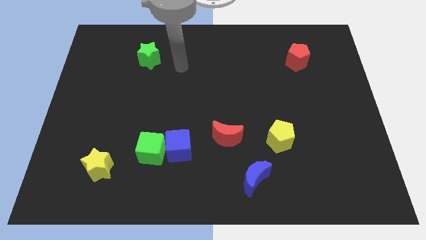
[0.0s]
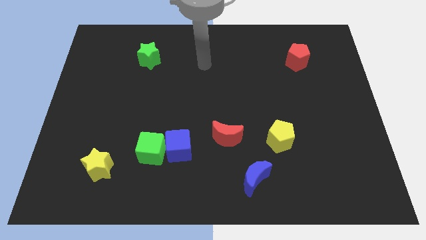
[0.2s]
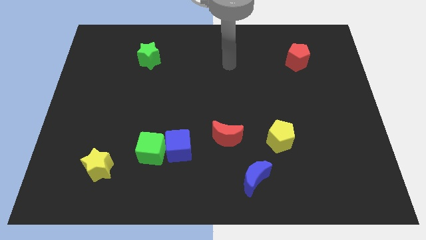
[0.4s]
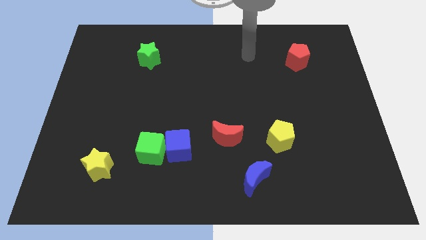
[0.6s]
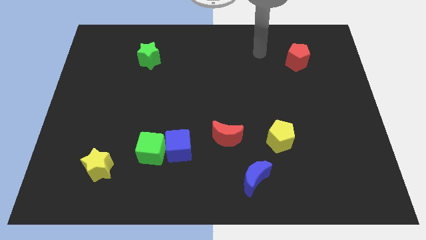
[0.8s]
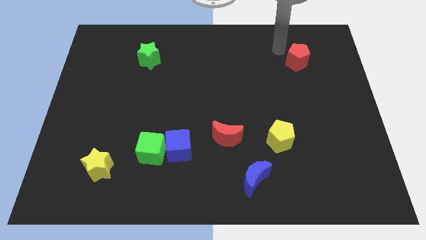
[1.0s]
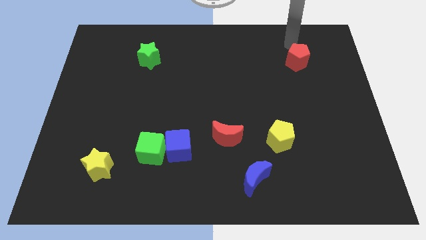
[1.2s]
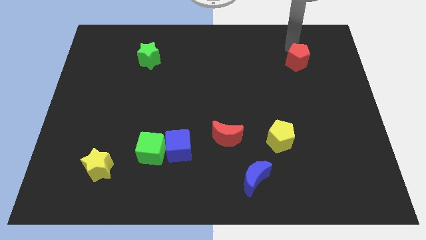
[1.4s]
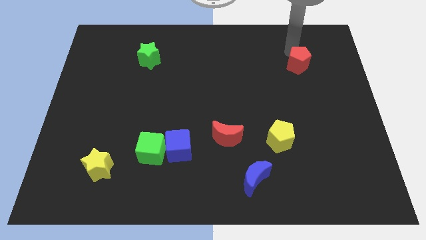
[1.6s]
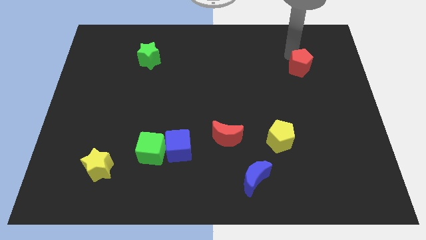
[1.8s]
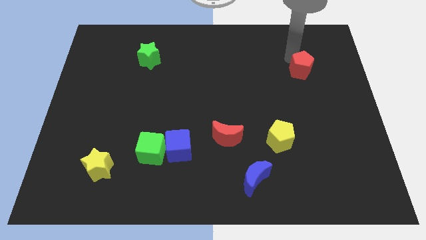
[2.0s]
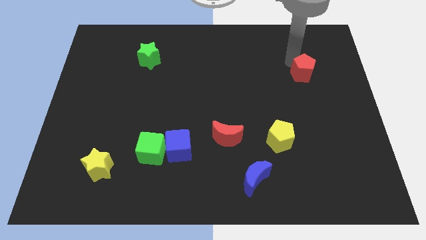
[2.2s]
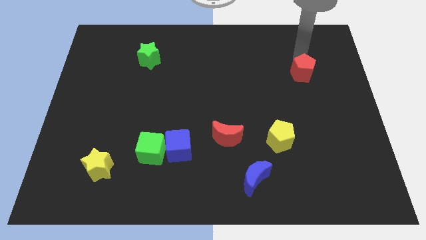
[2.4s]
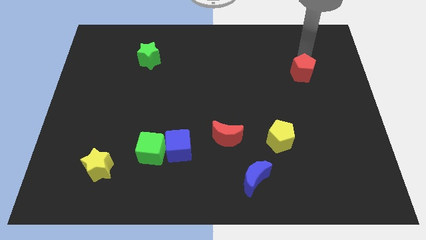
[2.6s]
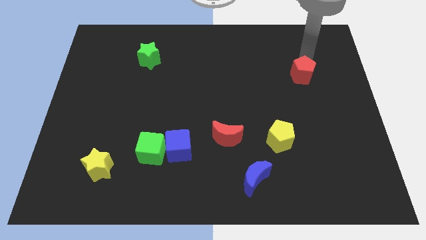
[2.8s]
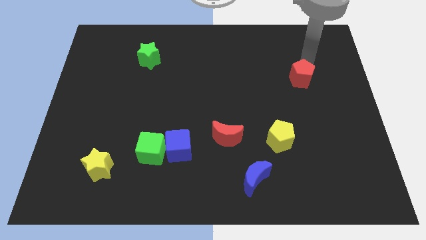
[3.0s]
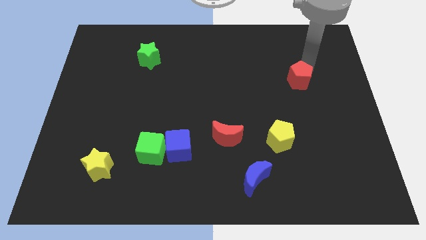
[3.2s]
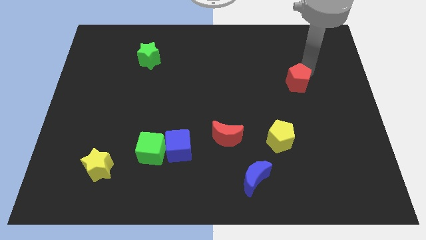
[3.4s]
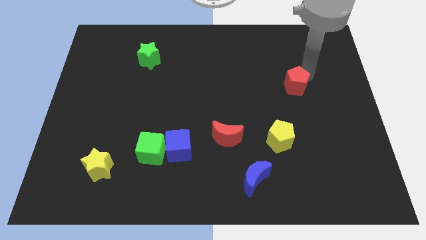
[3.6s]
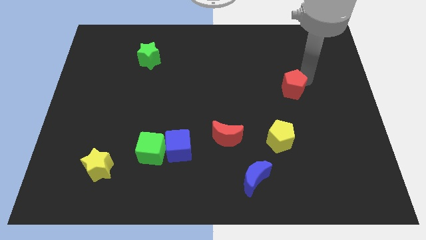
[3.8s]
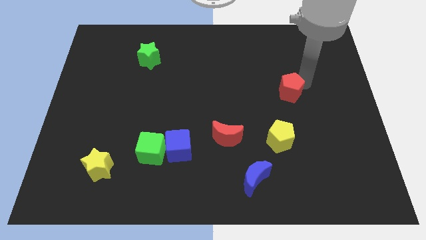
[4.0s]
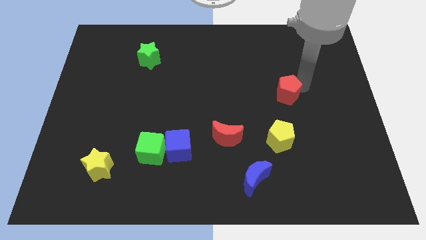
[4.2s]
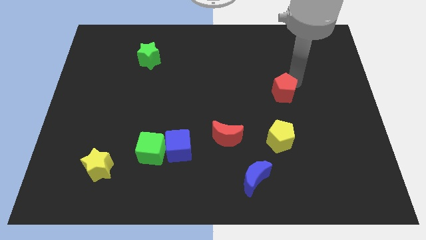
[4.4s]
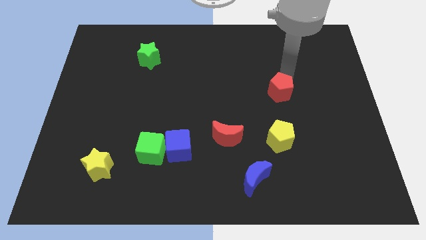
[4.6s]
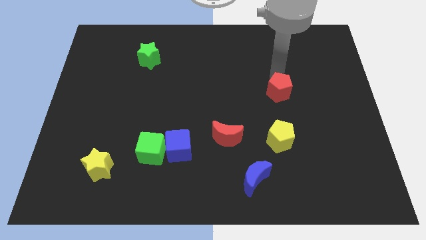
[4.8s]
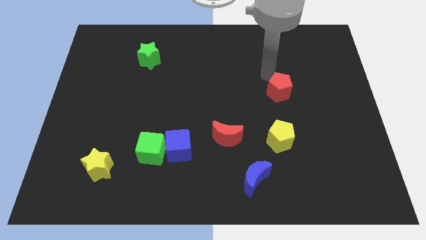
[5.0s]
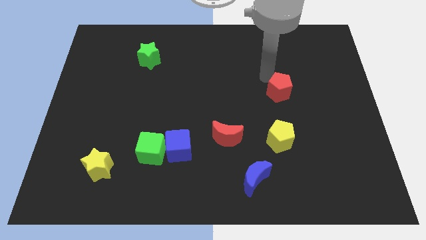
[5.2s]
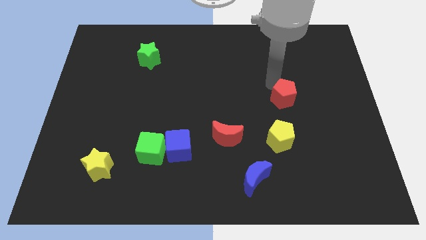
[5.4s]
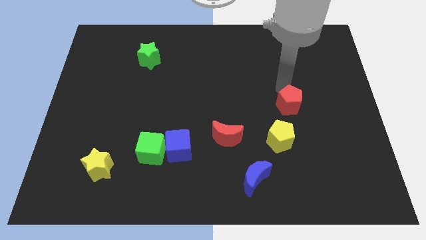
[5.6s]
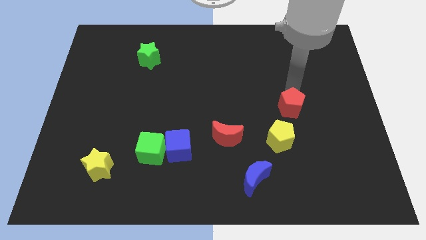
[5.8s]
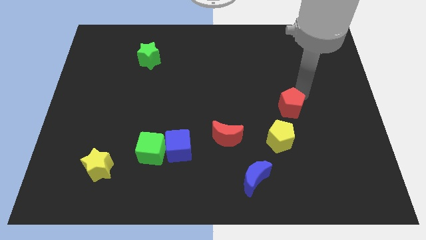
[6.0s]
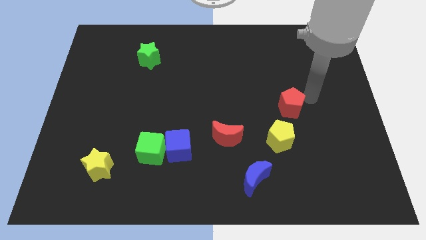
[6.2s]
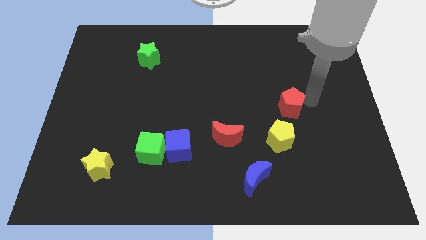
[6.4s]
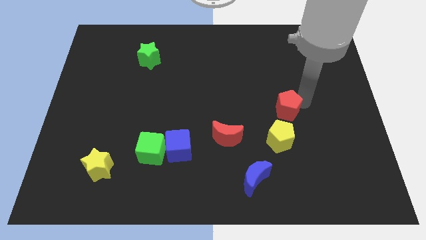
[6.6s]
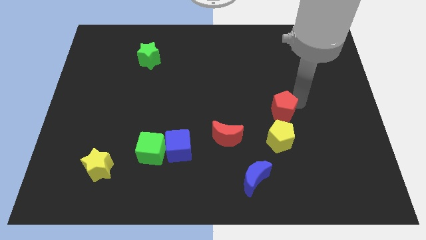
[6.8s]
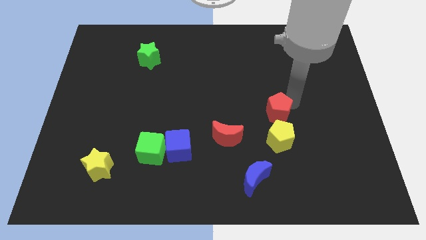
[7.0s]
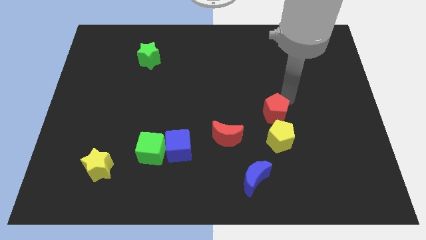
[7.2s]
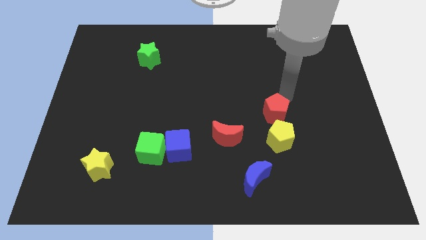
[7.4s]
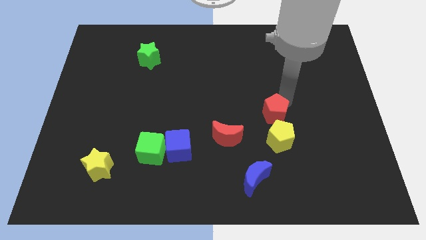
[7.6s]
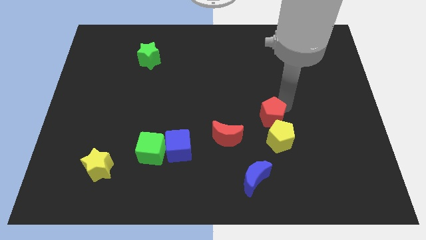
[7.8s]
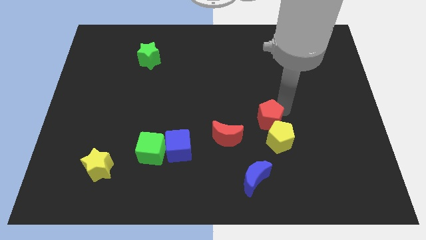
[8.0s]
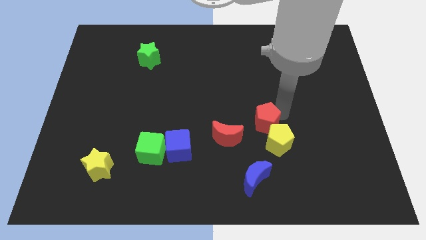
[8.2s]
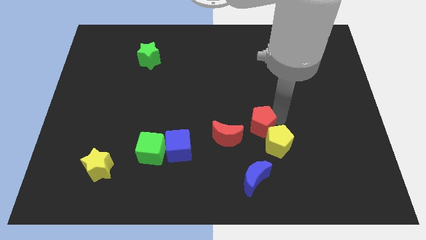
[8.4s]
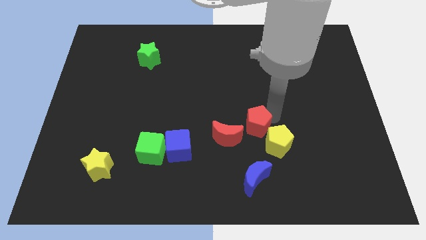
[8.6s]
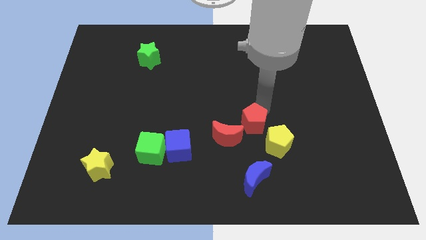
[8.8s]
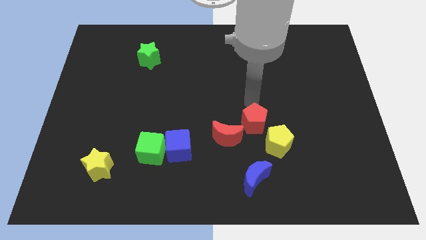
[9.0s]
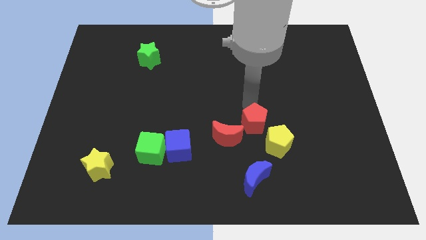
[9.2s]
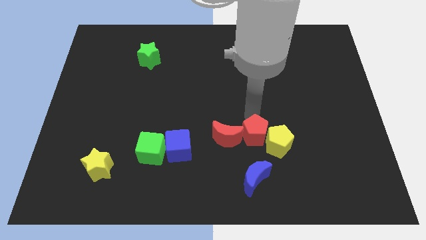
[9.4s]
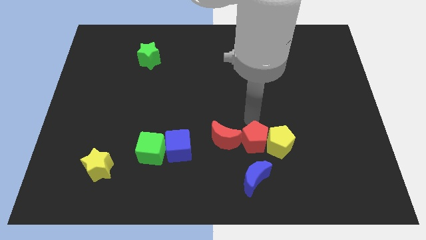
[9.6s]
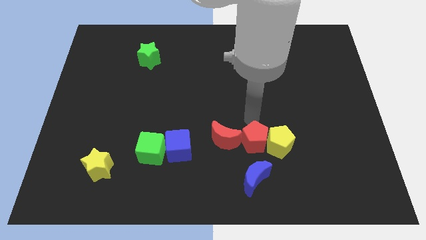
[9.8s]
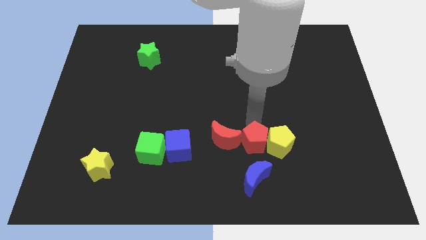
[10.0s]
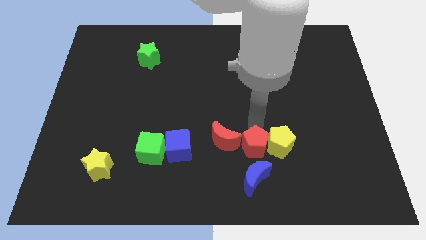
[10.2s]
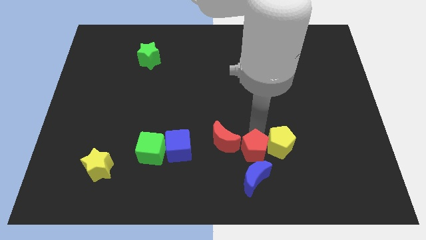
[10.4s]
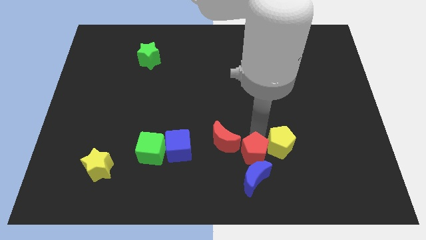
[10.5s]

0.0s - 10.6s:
push the red pentagon to the blue moon

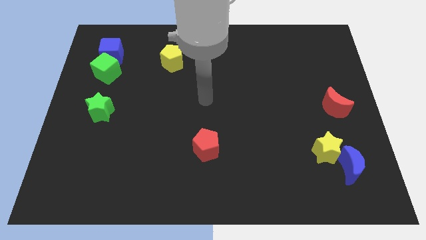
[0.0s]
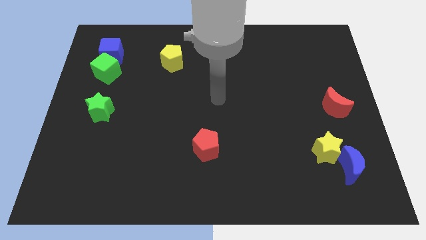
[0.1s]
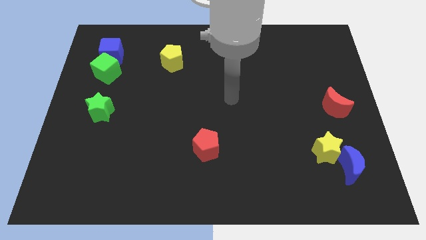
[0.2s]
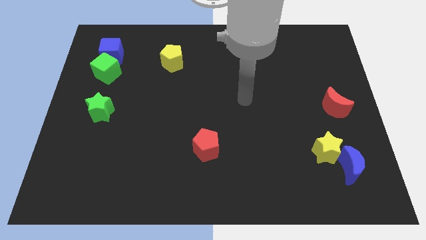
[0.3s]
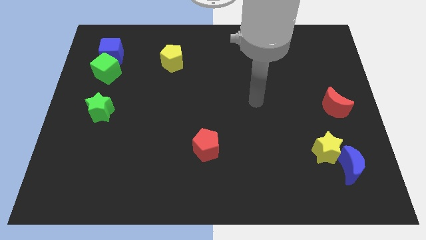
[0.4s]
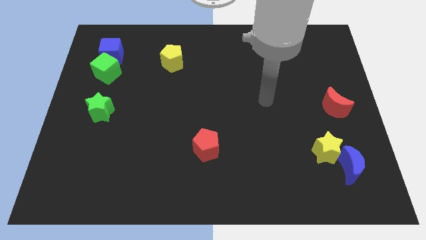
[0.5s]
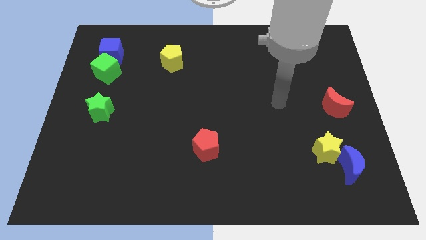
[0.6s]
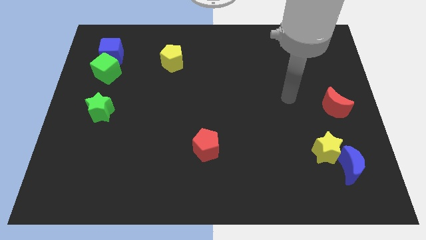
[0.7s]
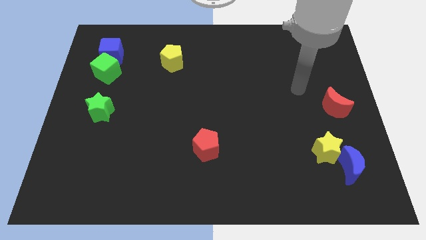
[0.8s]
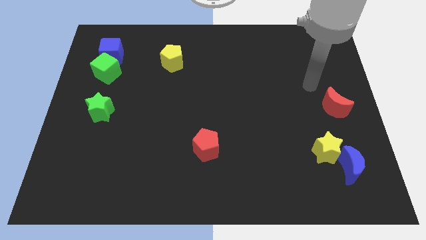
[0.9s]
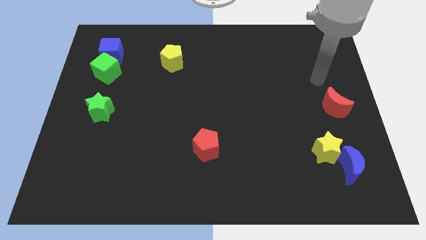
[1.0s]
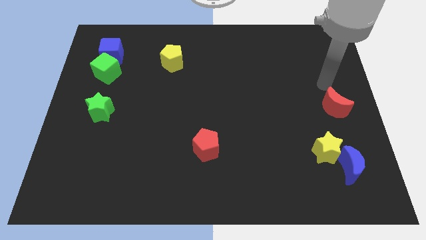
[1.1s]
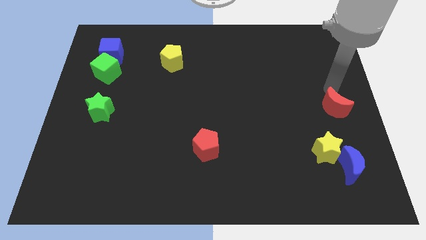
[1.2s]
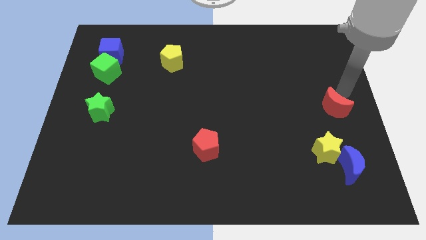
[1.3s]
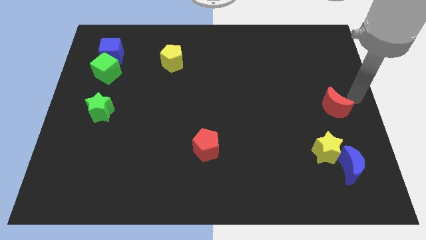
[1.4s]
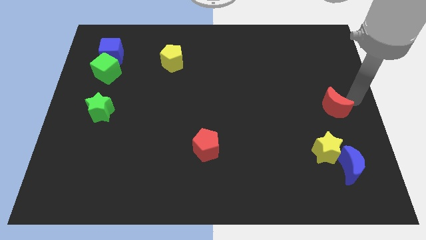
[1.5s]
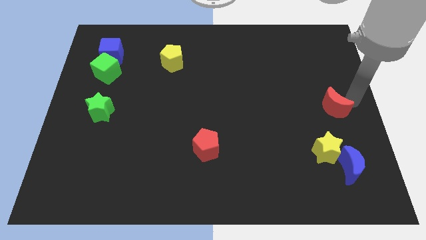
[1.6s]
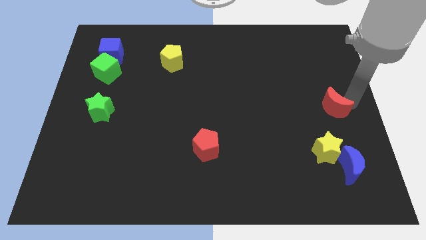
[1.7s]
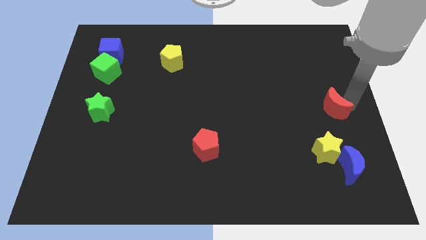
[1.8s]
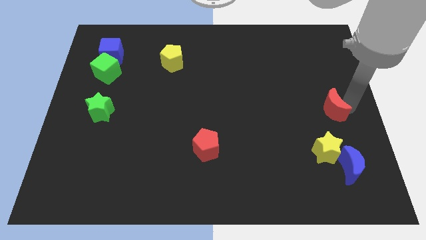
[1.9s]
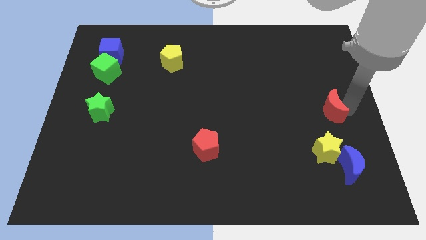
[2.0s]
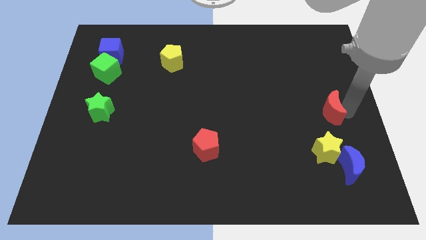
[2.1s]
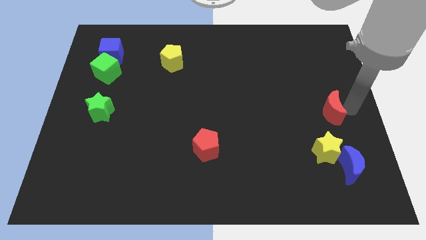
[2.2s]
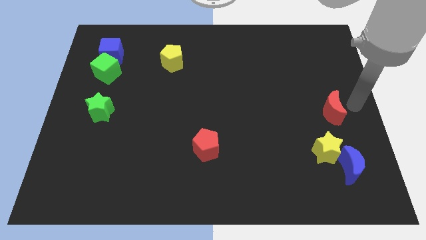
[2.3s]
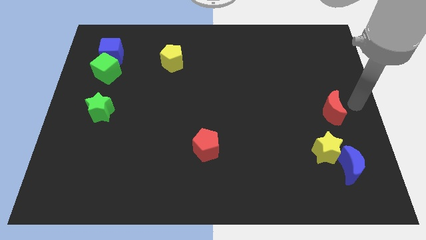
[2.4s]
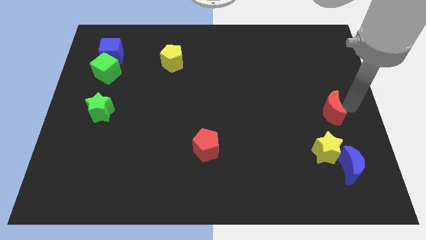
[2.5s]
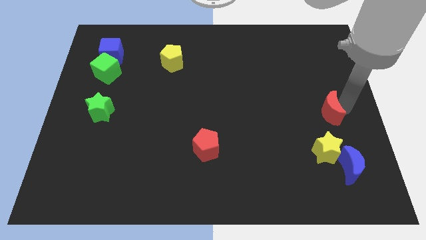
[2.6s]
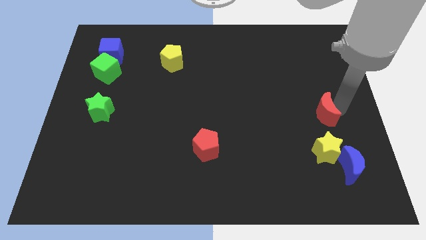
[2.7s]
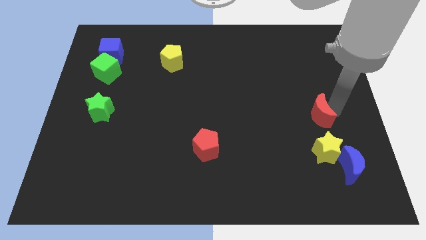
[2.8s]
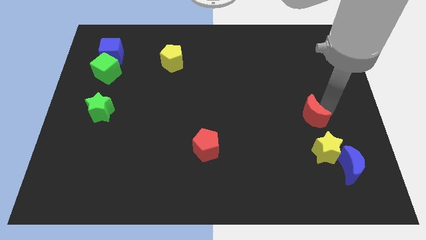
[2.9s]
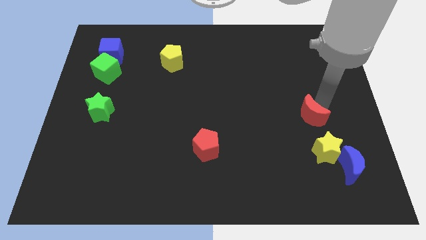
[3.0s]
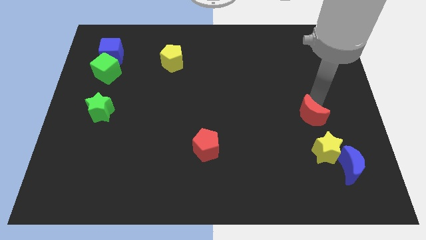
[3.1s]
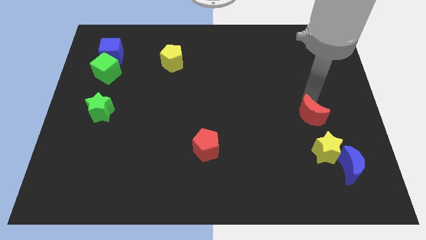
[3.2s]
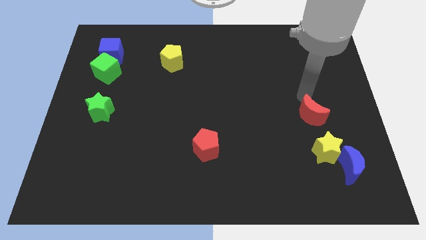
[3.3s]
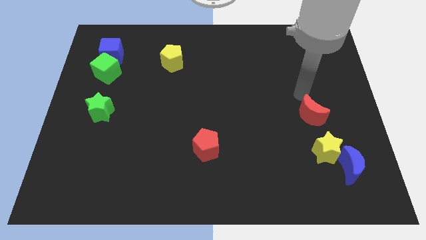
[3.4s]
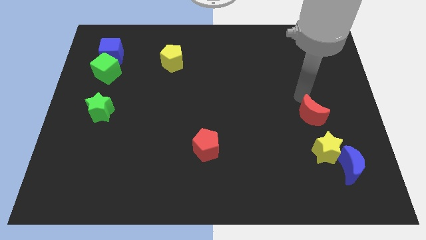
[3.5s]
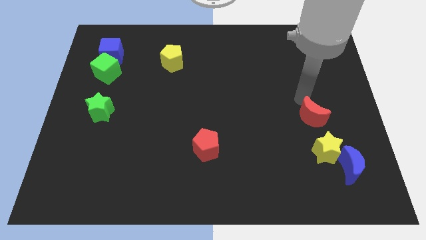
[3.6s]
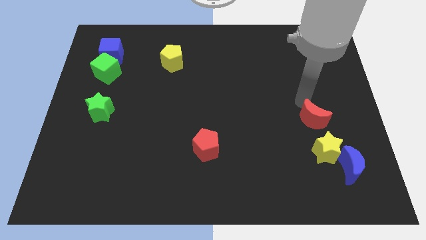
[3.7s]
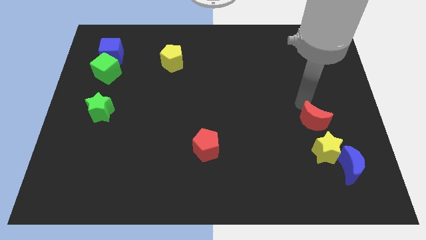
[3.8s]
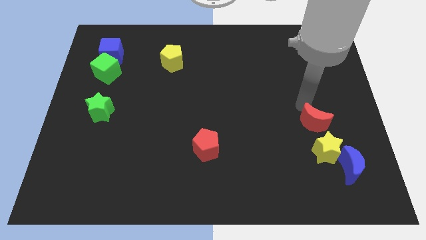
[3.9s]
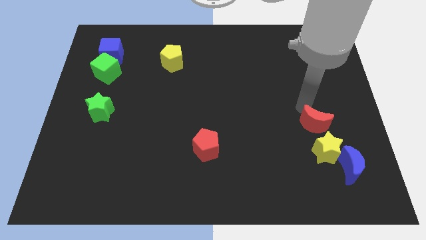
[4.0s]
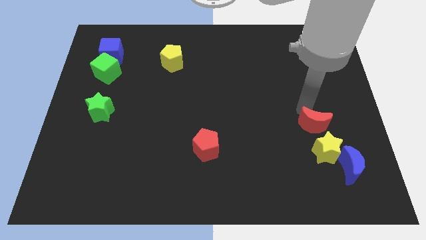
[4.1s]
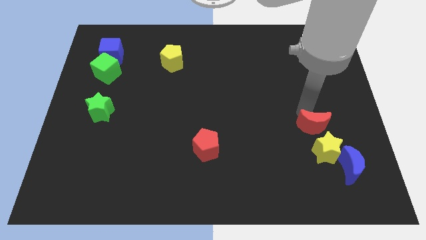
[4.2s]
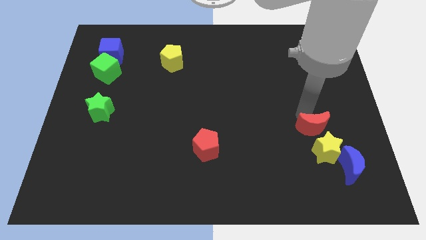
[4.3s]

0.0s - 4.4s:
move the red moon to the yellow star
